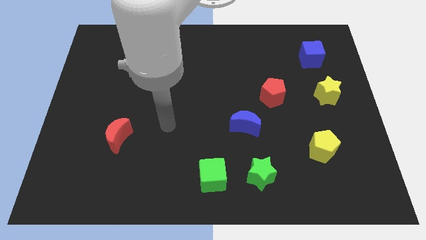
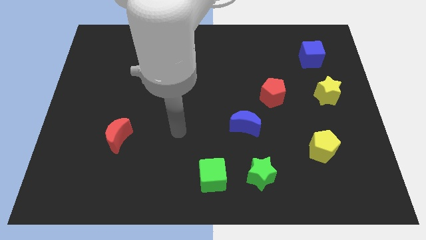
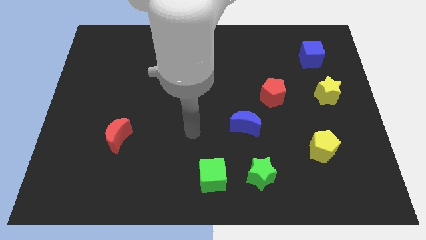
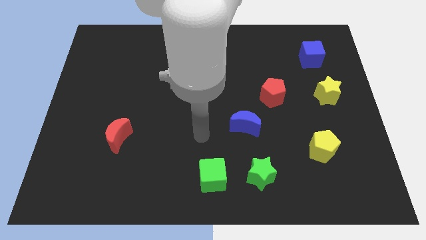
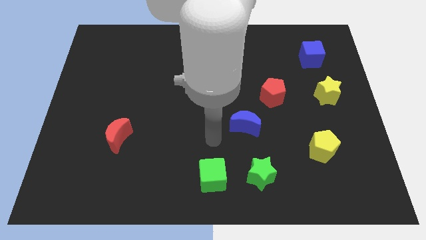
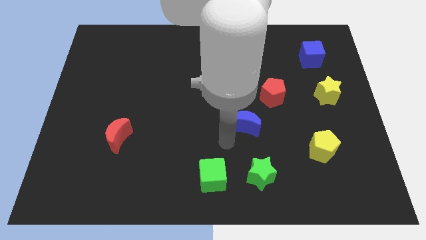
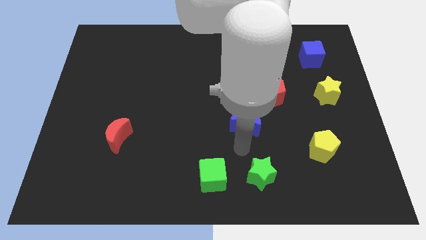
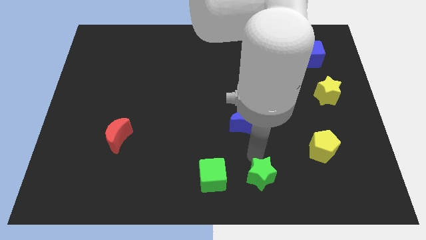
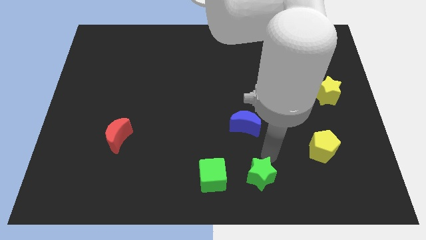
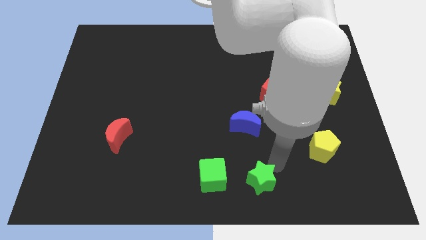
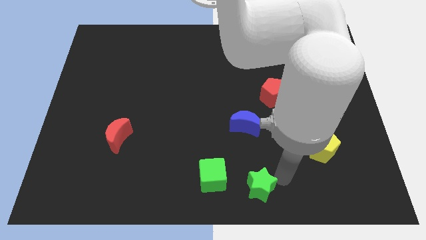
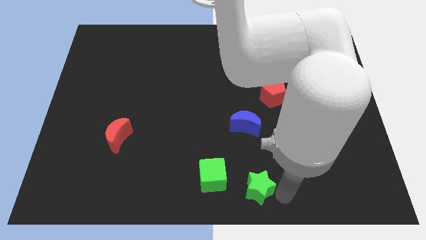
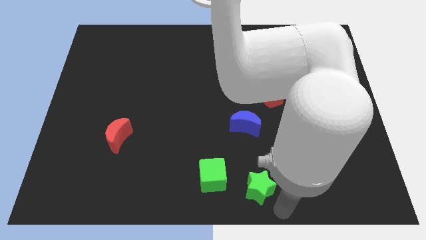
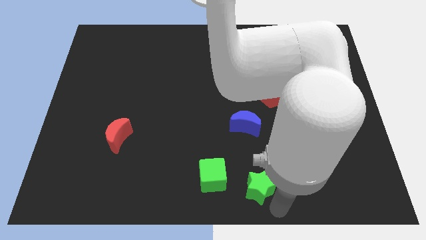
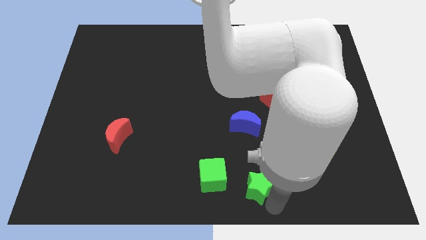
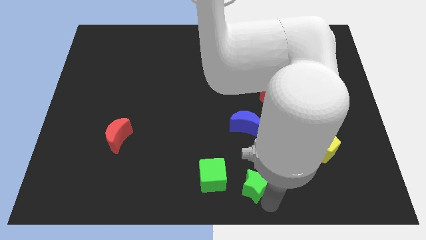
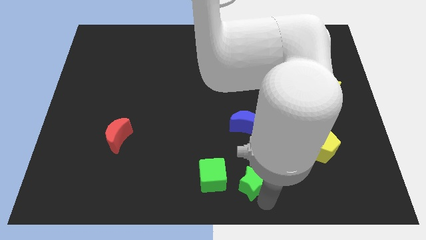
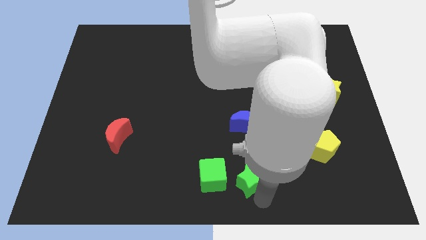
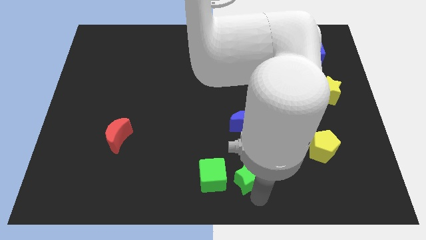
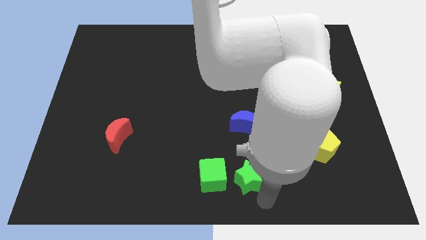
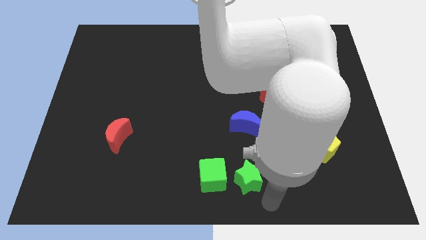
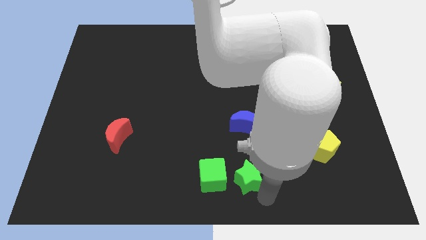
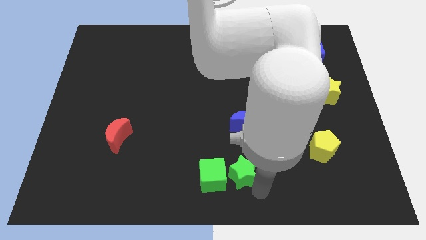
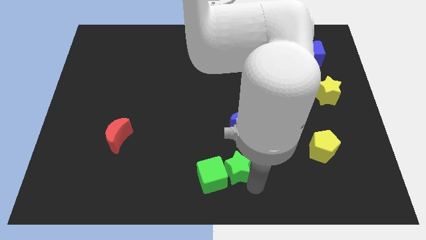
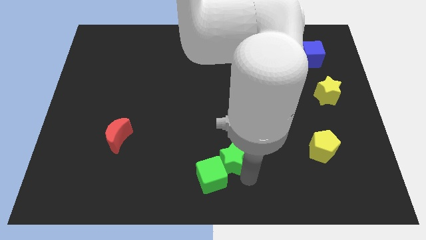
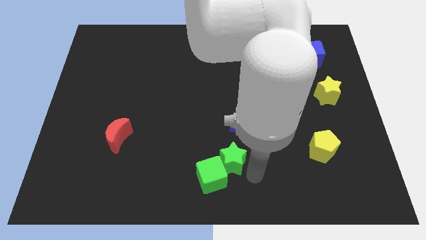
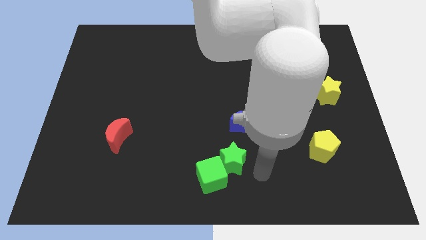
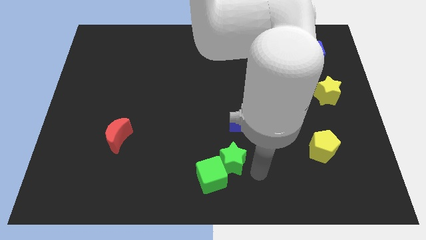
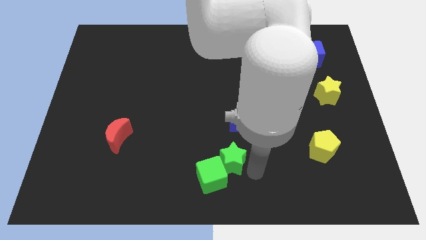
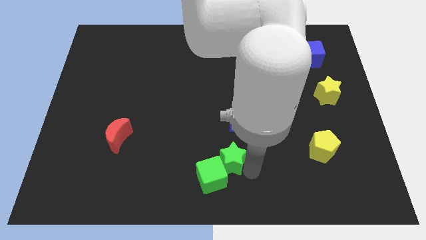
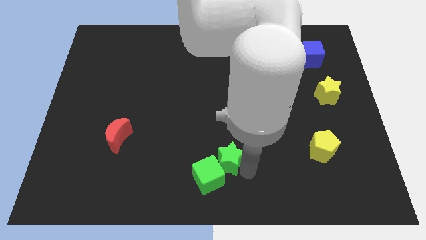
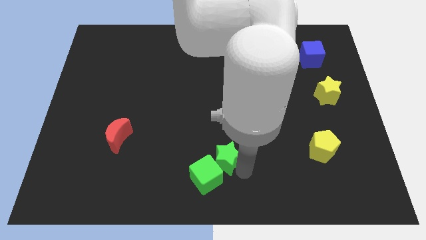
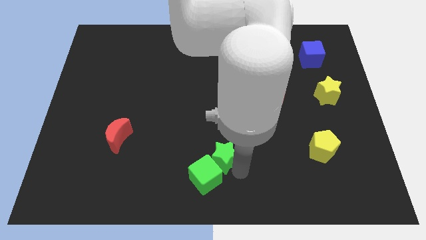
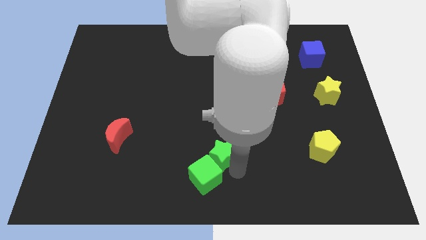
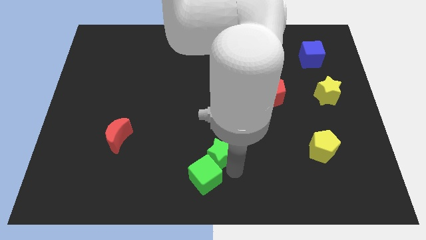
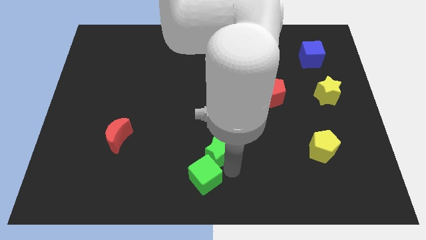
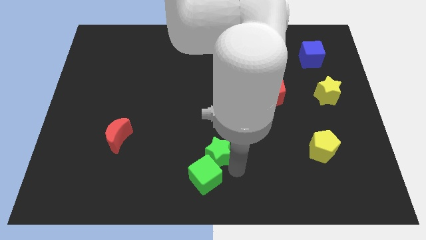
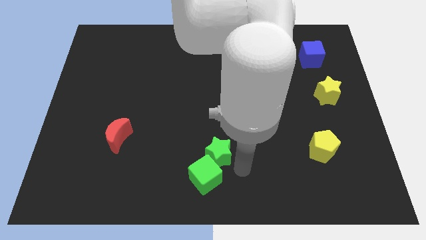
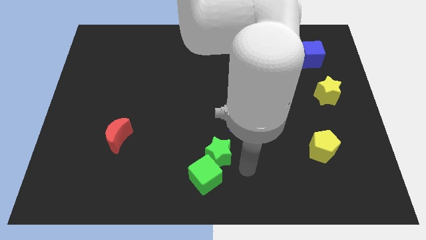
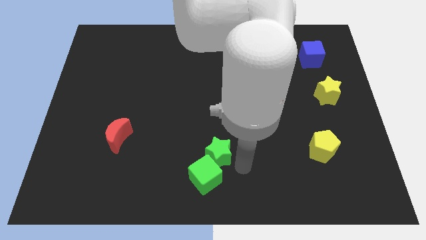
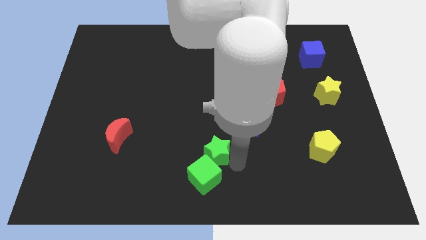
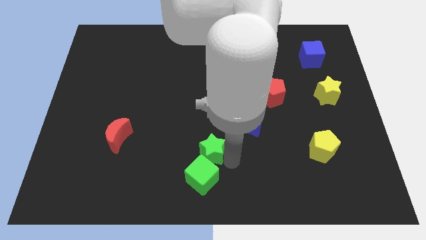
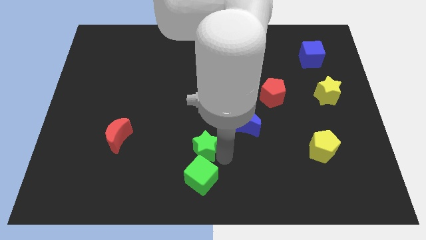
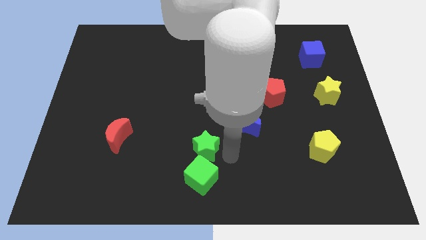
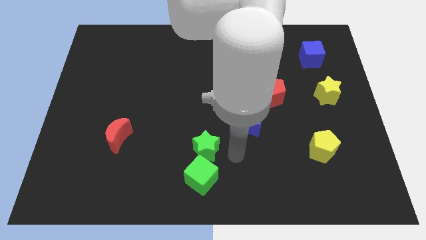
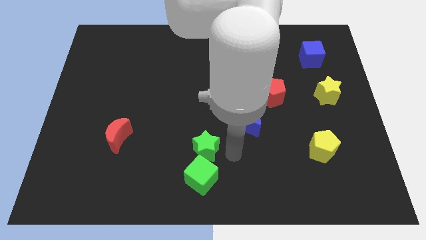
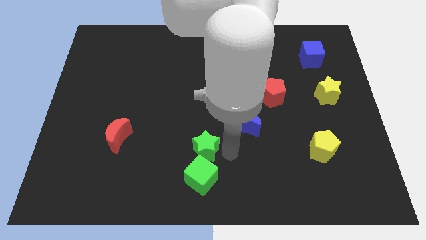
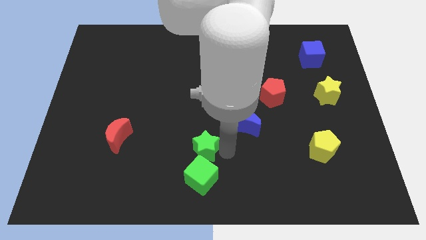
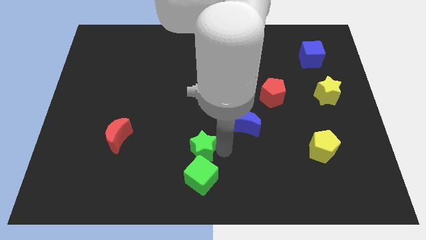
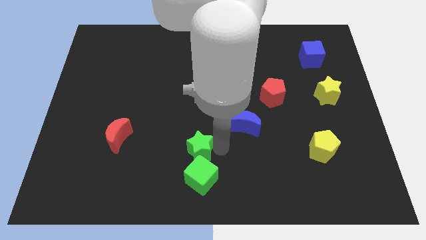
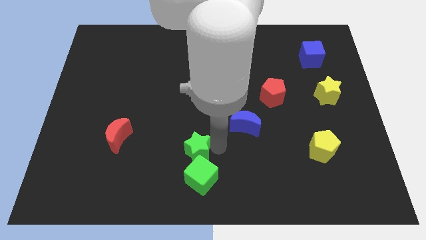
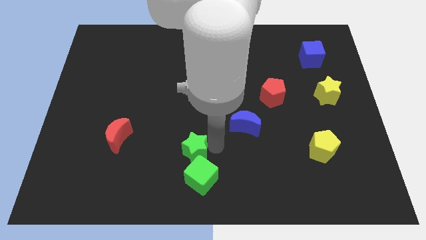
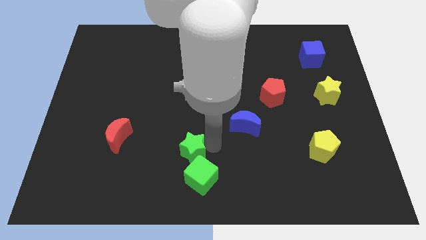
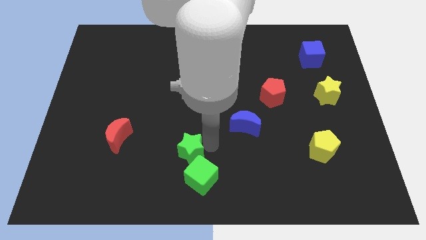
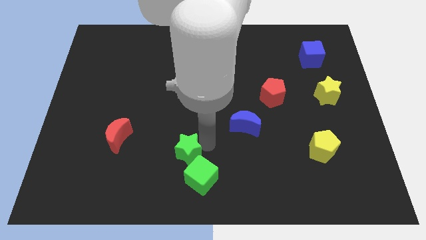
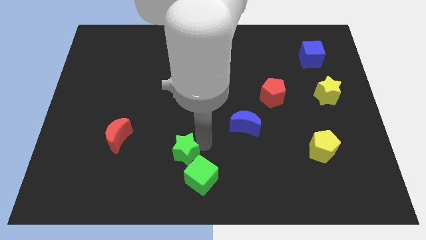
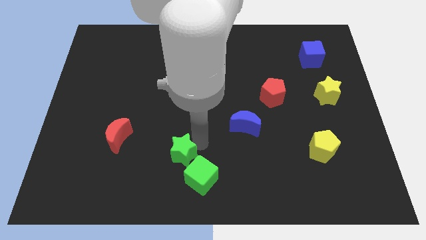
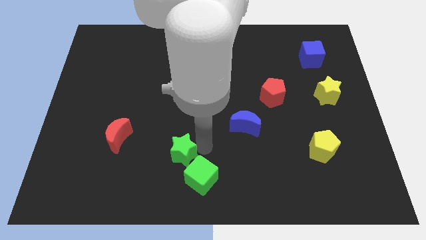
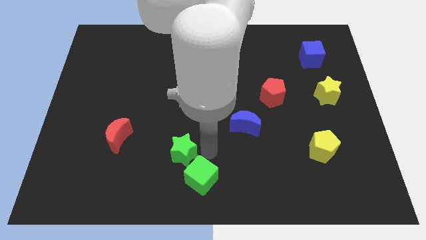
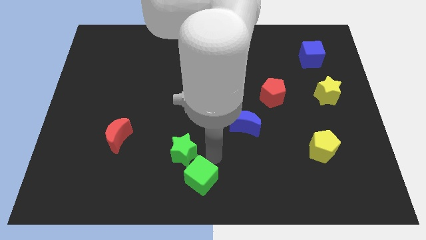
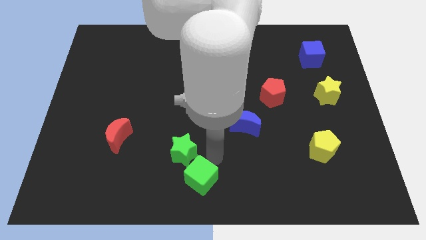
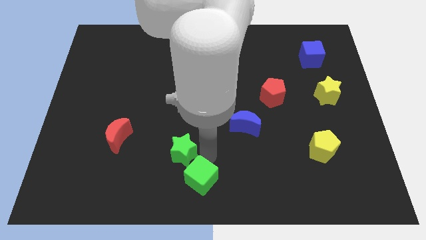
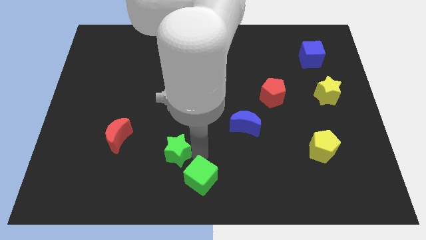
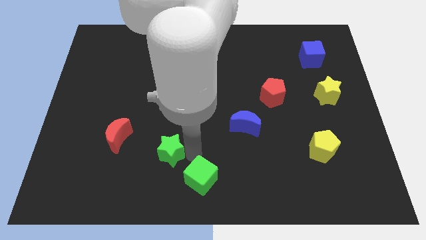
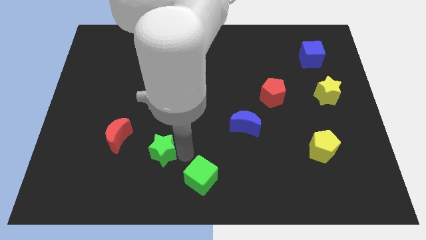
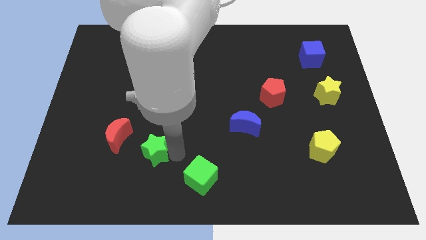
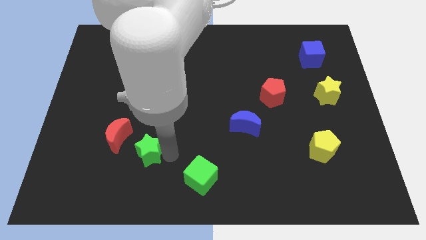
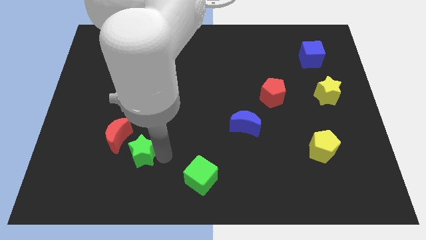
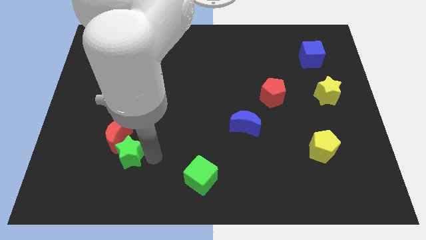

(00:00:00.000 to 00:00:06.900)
put the green star next to the red moon
